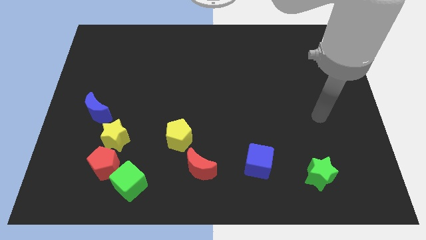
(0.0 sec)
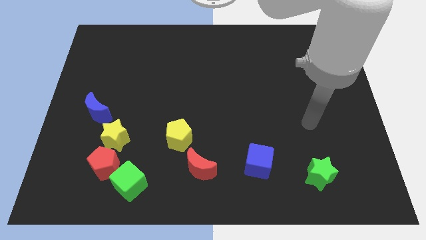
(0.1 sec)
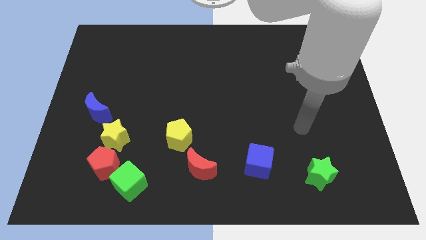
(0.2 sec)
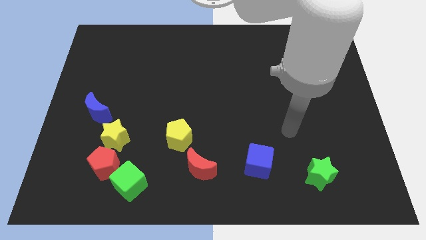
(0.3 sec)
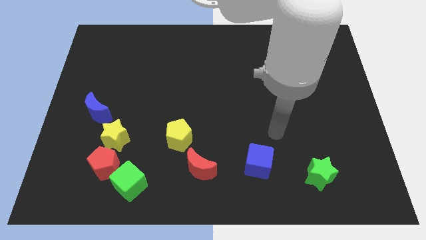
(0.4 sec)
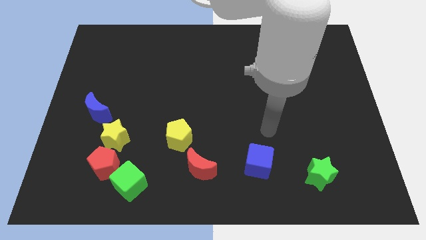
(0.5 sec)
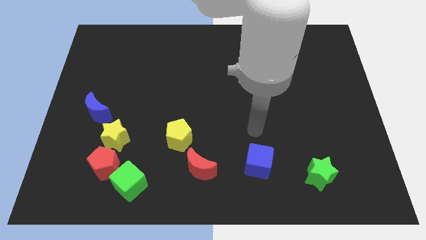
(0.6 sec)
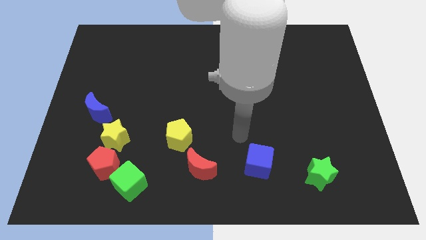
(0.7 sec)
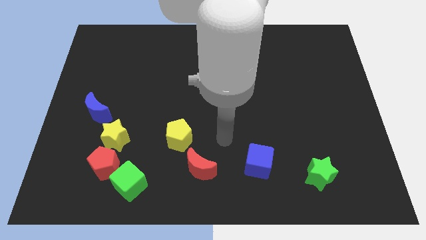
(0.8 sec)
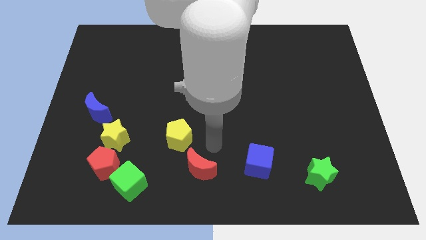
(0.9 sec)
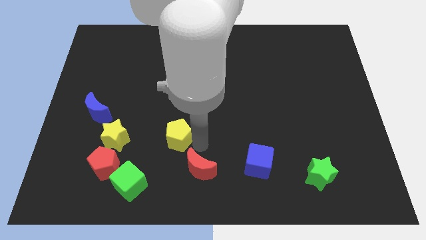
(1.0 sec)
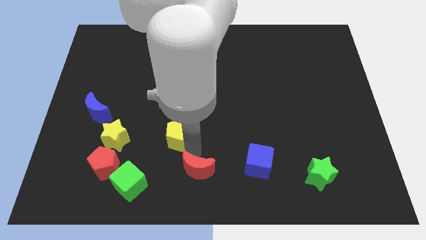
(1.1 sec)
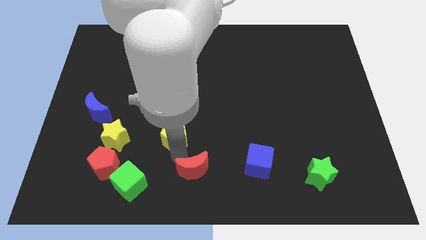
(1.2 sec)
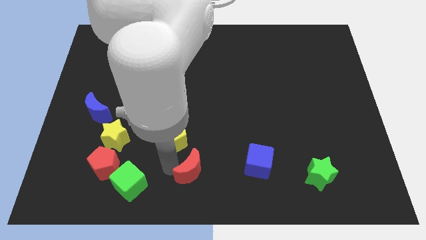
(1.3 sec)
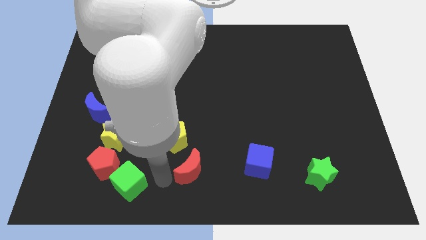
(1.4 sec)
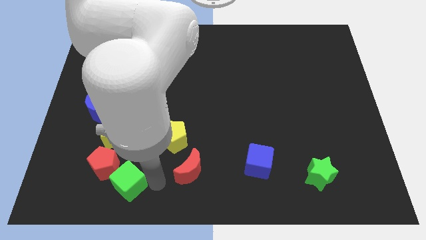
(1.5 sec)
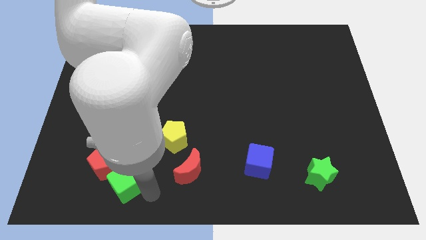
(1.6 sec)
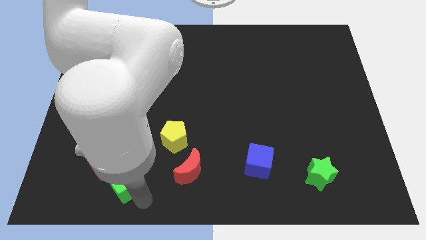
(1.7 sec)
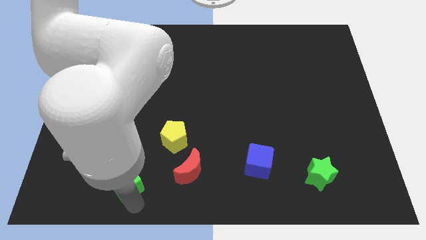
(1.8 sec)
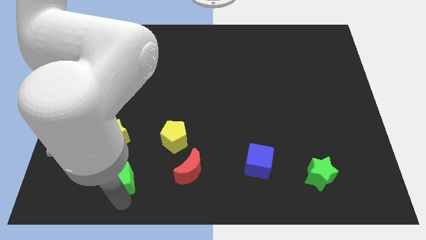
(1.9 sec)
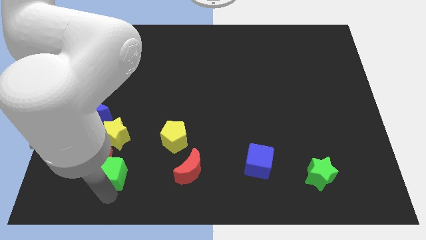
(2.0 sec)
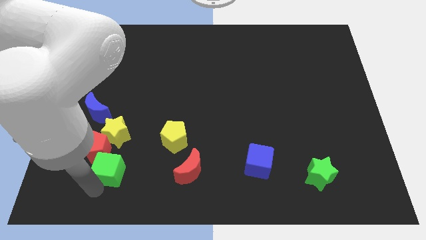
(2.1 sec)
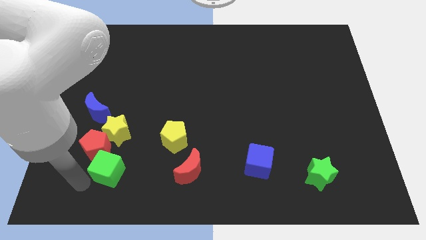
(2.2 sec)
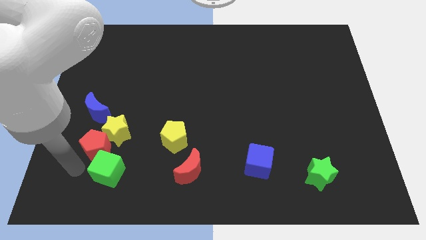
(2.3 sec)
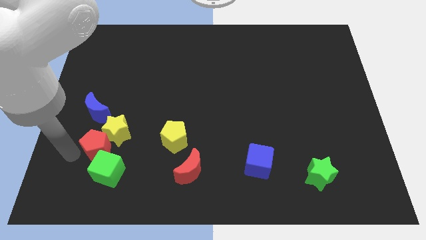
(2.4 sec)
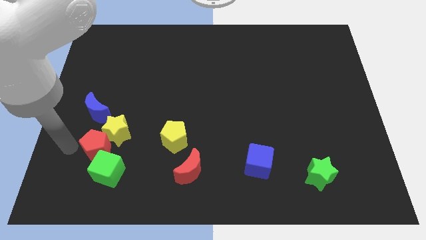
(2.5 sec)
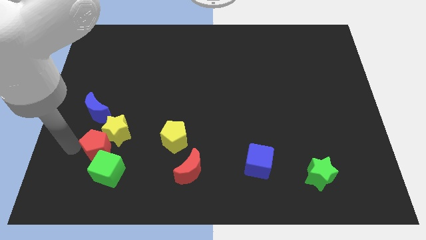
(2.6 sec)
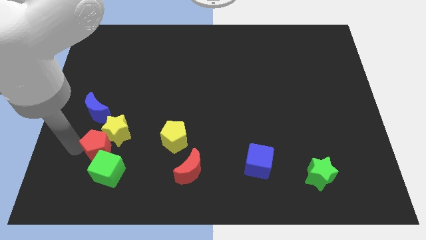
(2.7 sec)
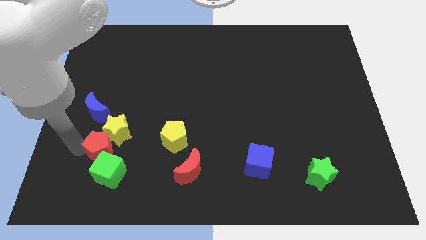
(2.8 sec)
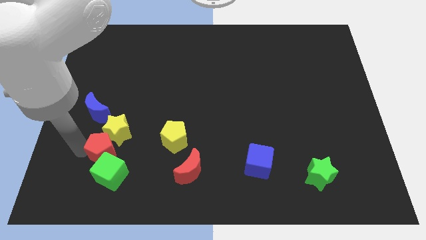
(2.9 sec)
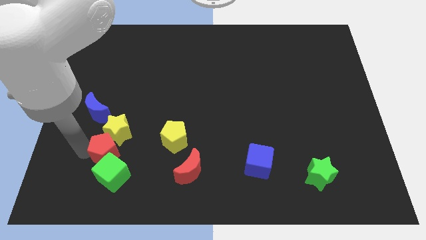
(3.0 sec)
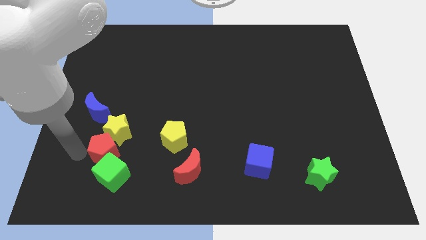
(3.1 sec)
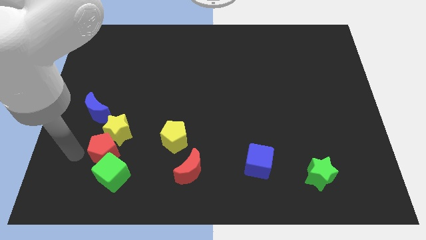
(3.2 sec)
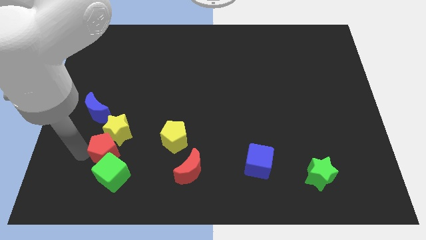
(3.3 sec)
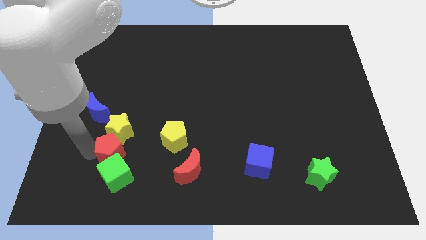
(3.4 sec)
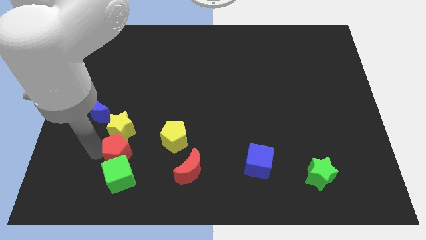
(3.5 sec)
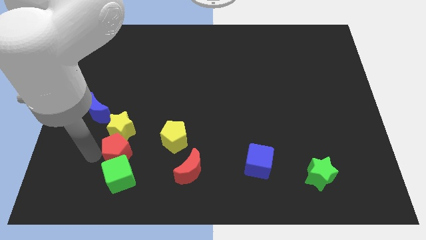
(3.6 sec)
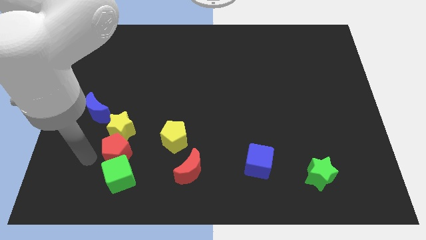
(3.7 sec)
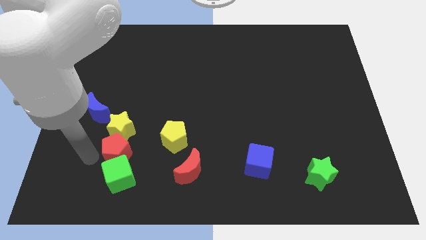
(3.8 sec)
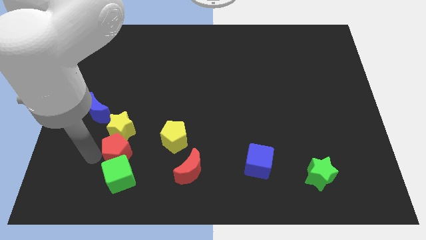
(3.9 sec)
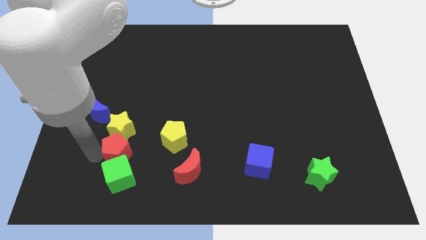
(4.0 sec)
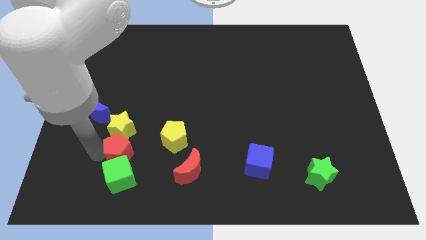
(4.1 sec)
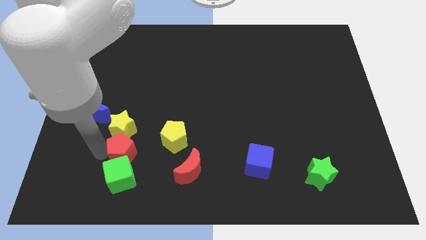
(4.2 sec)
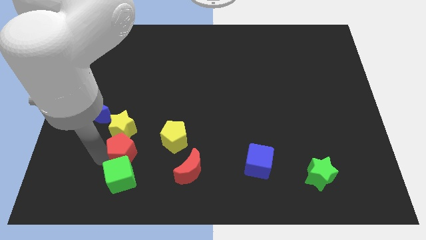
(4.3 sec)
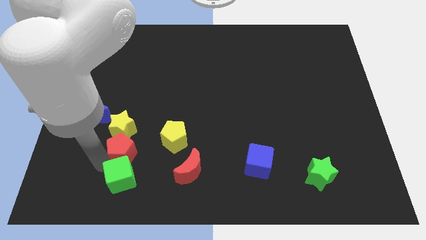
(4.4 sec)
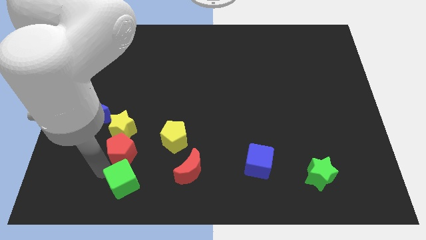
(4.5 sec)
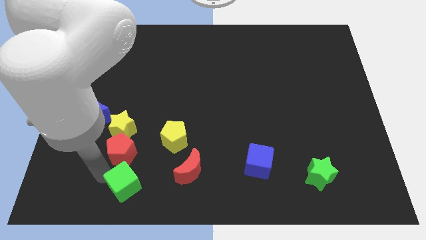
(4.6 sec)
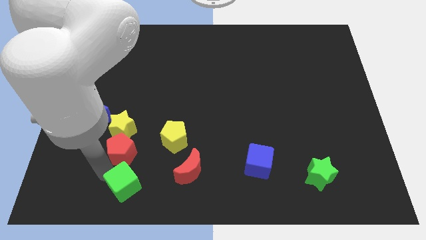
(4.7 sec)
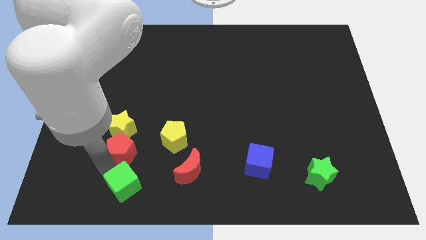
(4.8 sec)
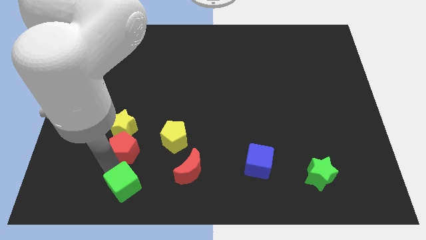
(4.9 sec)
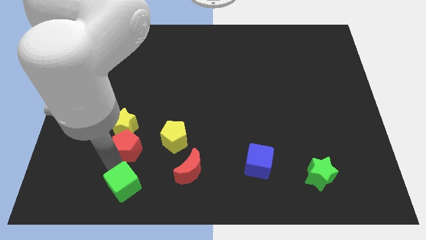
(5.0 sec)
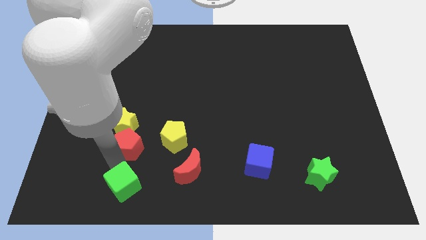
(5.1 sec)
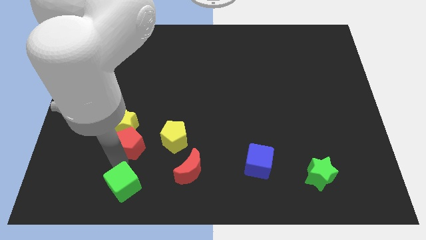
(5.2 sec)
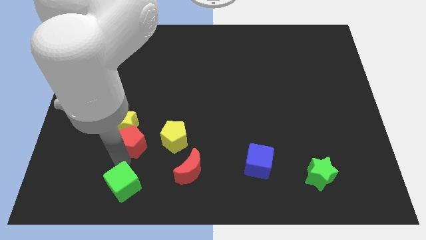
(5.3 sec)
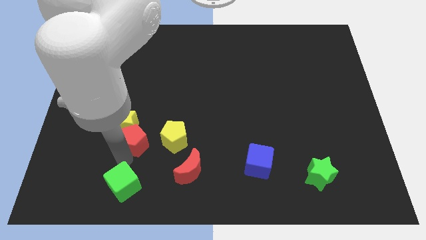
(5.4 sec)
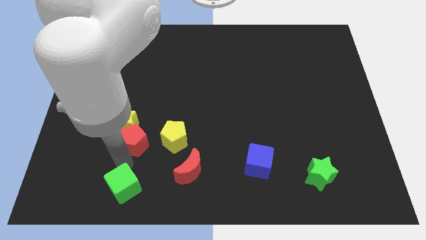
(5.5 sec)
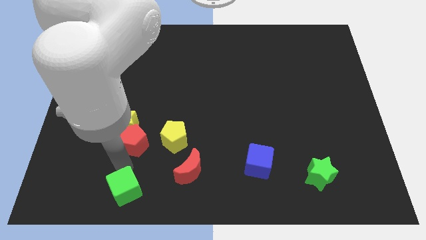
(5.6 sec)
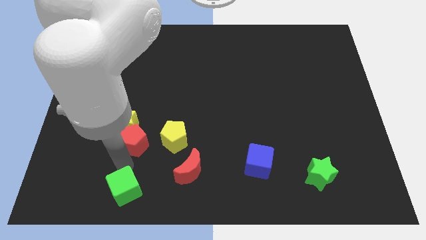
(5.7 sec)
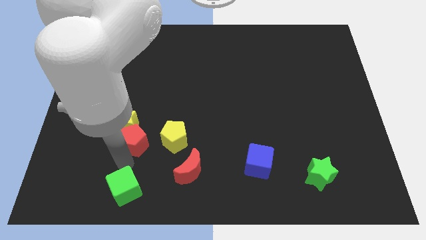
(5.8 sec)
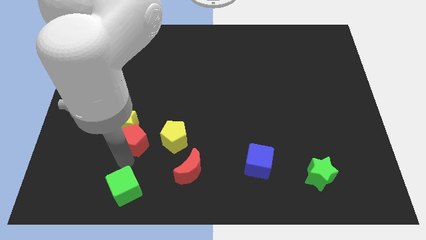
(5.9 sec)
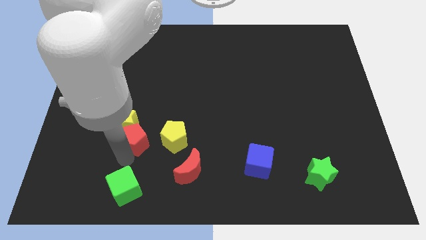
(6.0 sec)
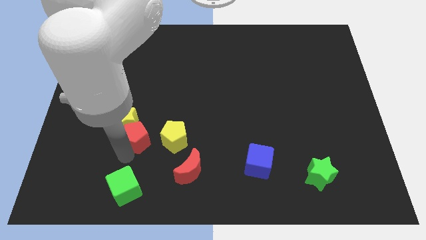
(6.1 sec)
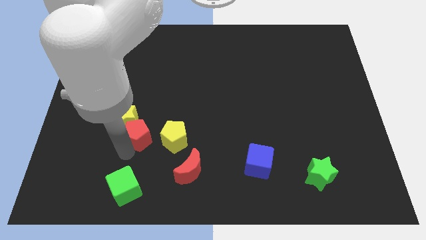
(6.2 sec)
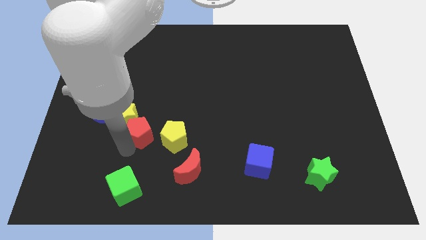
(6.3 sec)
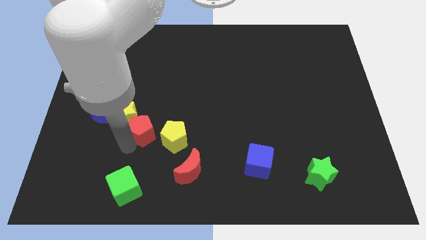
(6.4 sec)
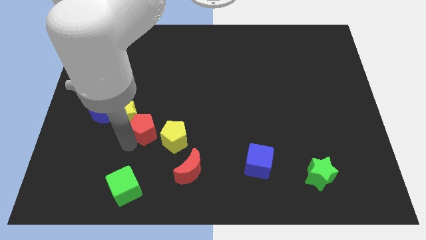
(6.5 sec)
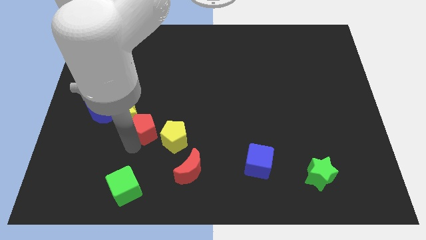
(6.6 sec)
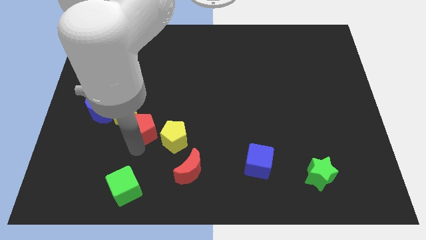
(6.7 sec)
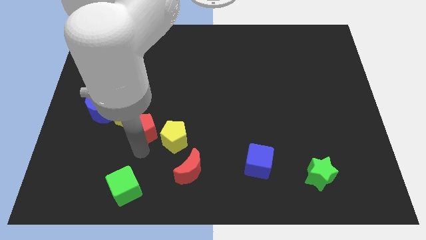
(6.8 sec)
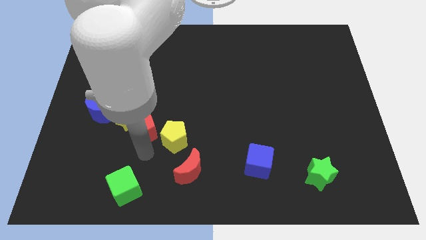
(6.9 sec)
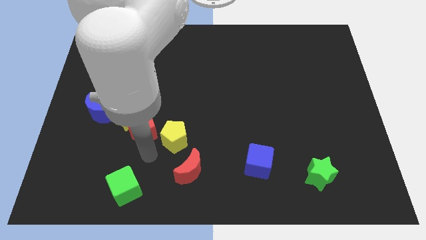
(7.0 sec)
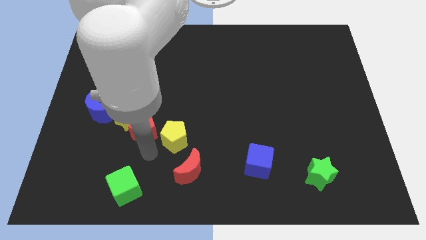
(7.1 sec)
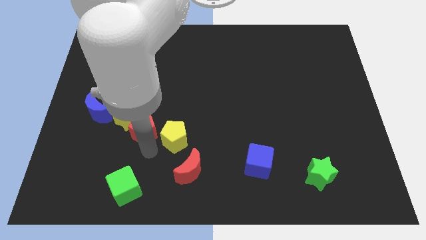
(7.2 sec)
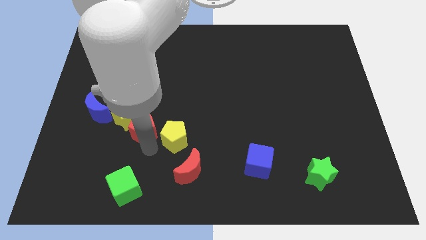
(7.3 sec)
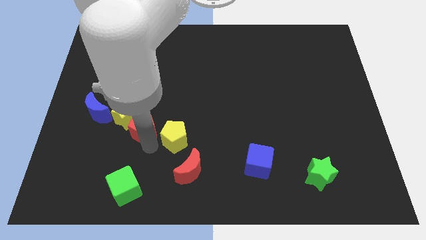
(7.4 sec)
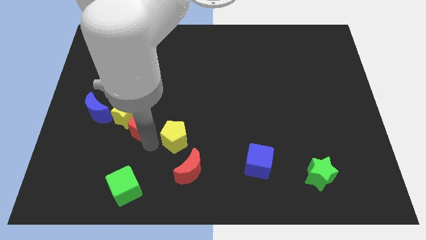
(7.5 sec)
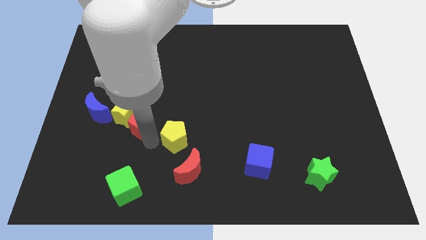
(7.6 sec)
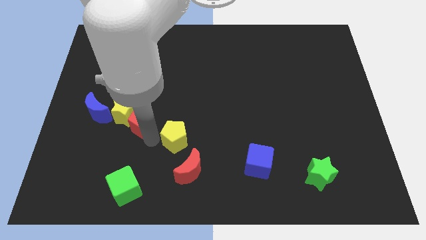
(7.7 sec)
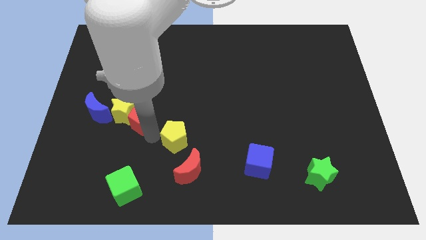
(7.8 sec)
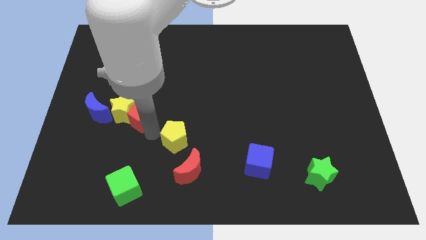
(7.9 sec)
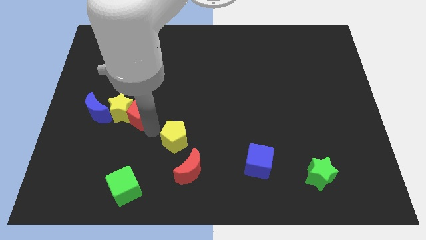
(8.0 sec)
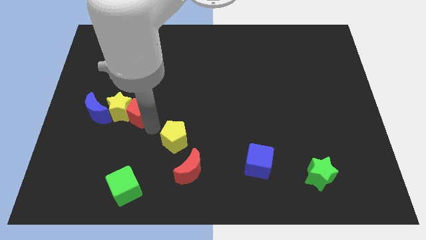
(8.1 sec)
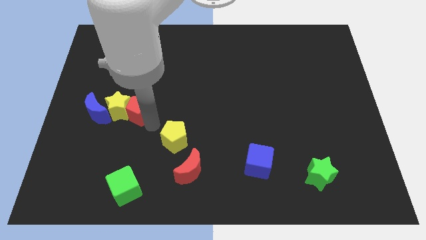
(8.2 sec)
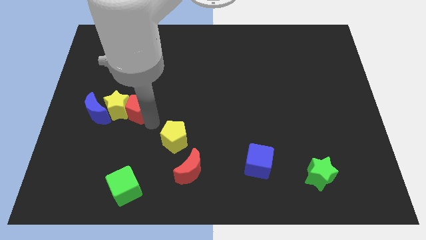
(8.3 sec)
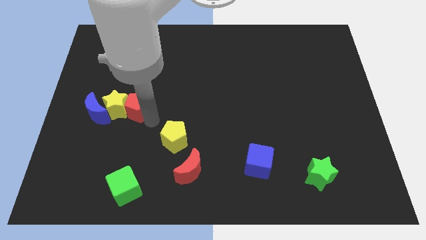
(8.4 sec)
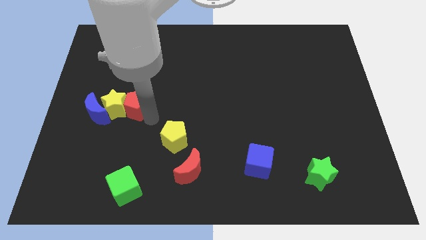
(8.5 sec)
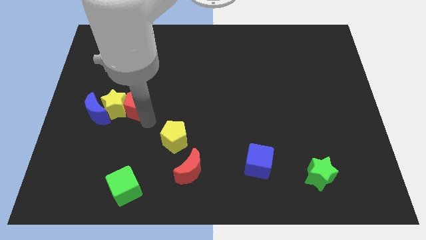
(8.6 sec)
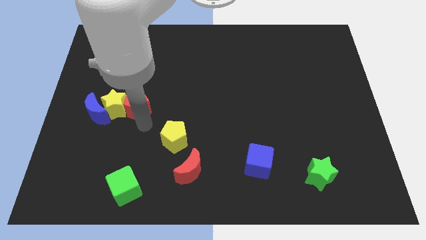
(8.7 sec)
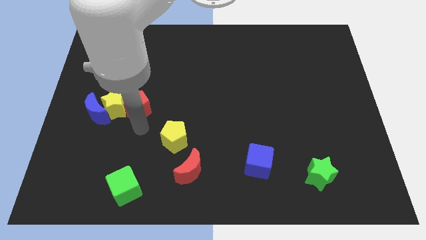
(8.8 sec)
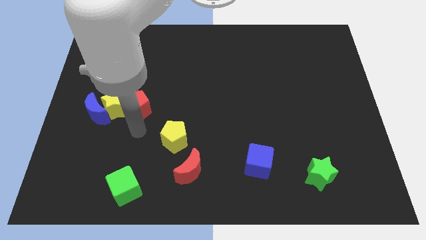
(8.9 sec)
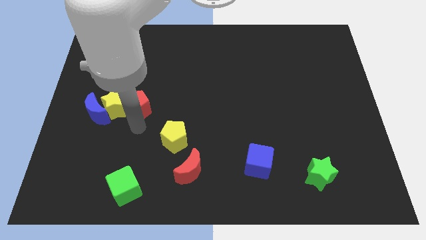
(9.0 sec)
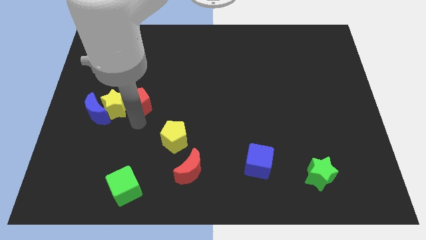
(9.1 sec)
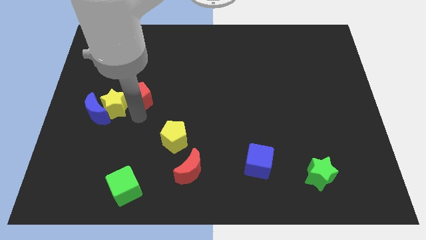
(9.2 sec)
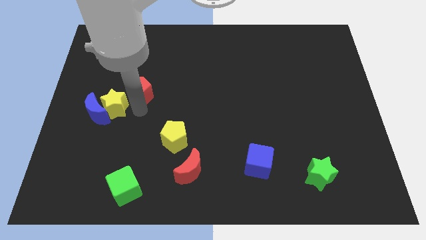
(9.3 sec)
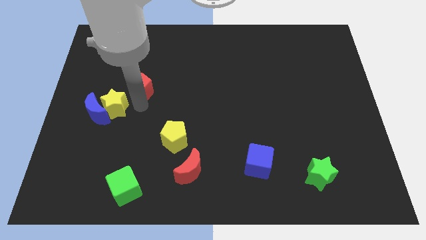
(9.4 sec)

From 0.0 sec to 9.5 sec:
push the red pentagon up
